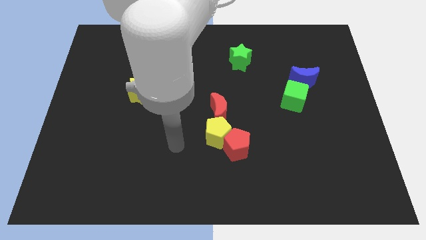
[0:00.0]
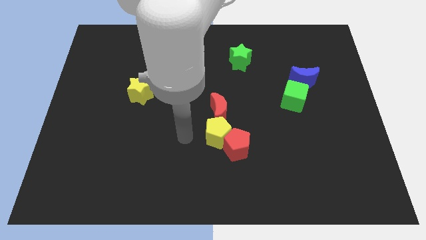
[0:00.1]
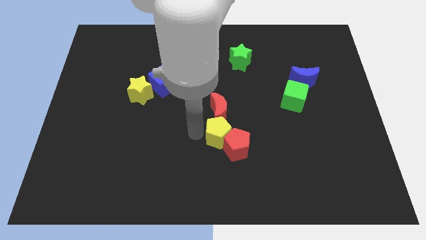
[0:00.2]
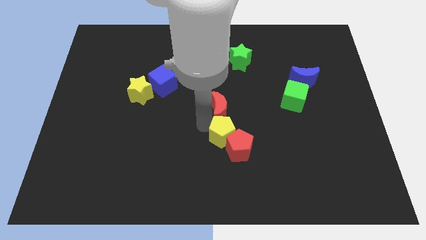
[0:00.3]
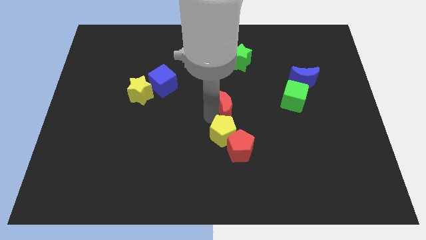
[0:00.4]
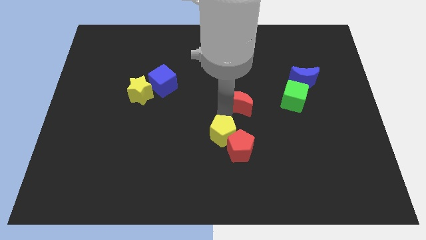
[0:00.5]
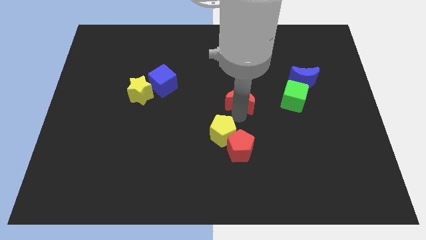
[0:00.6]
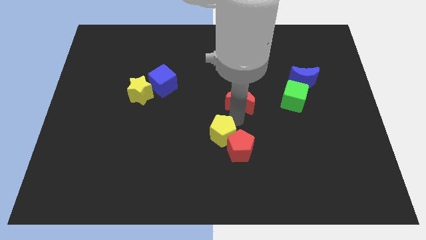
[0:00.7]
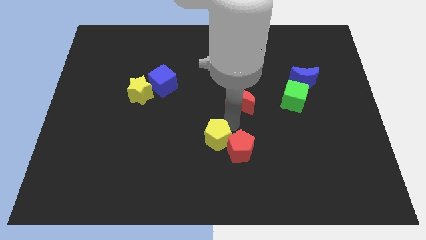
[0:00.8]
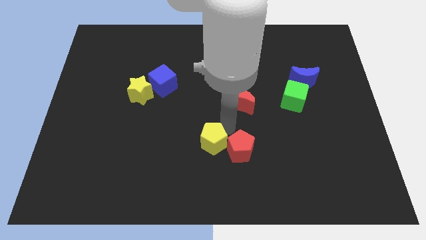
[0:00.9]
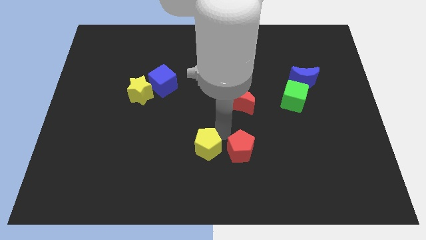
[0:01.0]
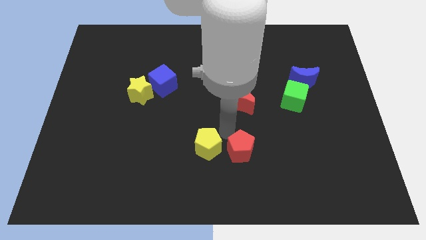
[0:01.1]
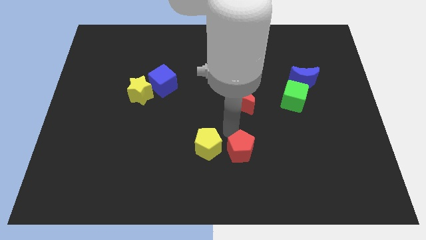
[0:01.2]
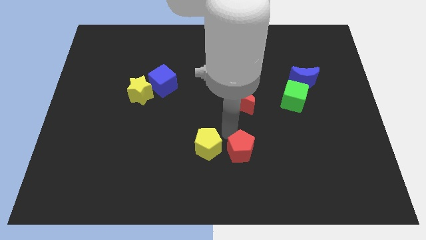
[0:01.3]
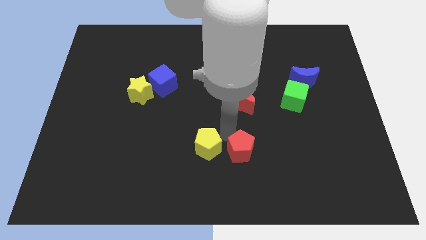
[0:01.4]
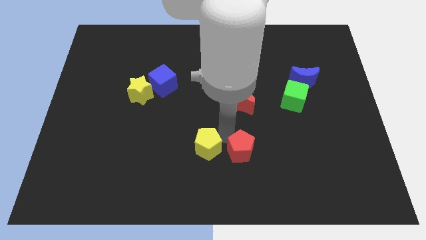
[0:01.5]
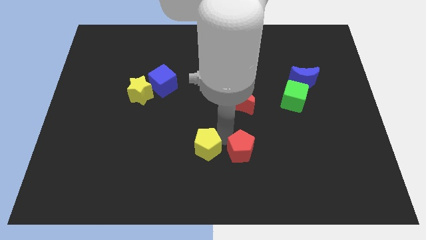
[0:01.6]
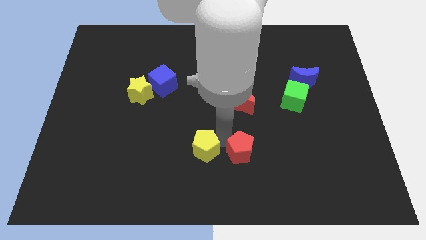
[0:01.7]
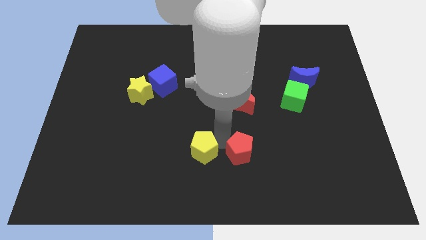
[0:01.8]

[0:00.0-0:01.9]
pull the yellow pentagon apart from the red pentagon and red moon

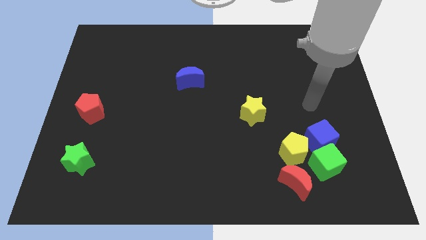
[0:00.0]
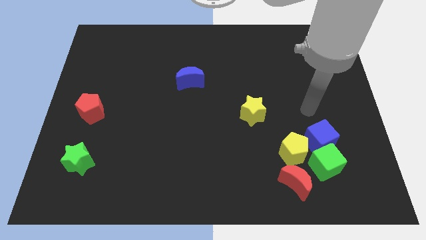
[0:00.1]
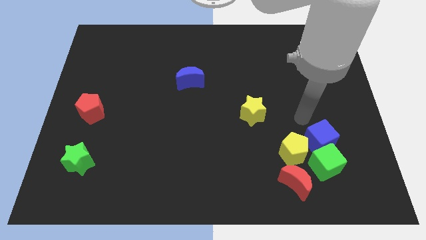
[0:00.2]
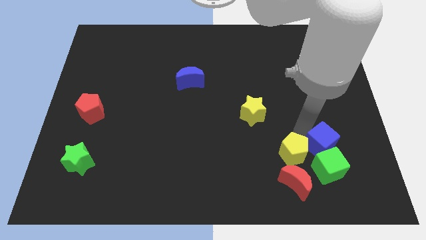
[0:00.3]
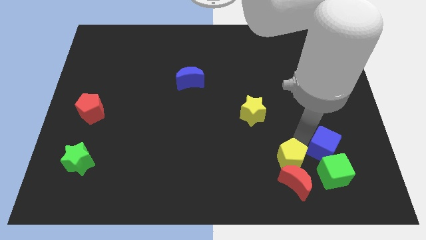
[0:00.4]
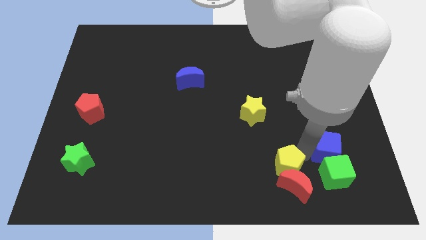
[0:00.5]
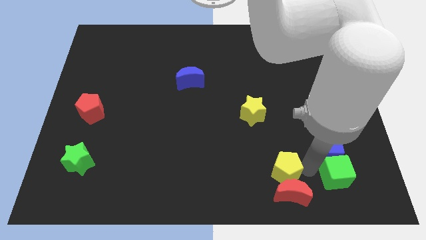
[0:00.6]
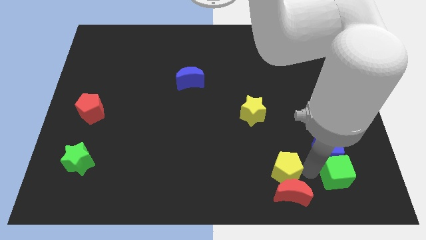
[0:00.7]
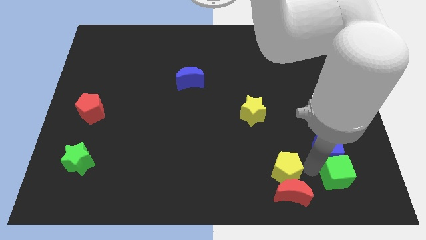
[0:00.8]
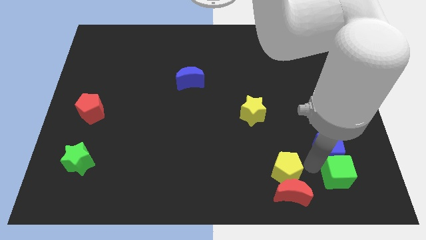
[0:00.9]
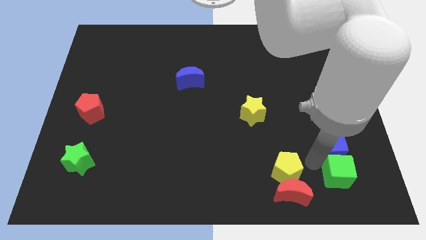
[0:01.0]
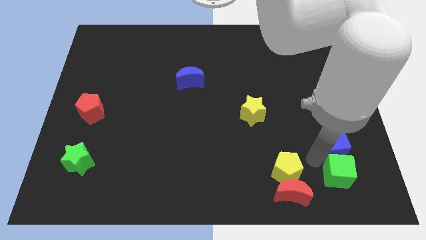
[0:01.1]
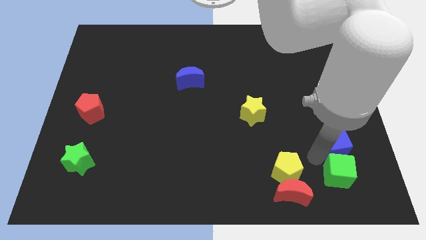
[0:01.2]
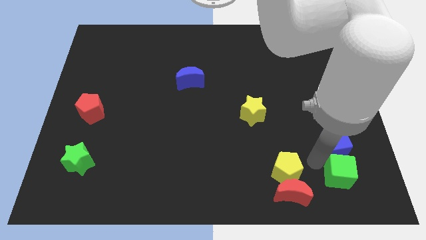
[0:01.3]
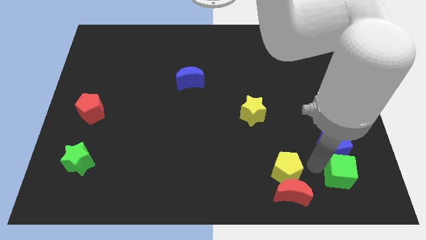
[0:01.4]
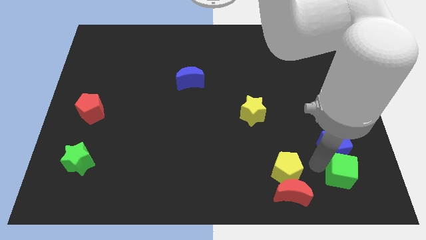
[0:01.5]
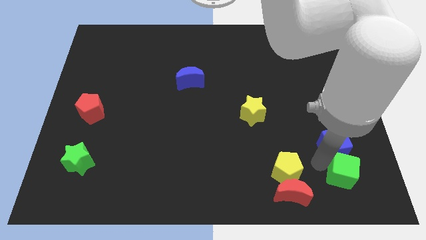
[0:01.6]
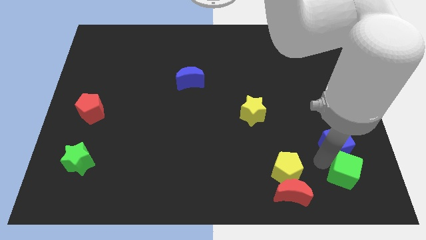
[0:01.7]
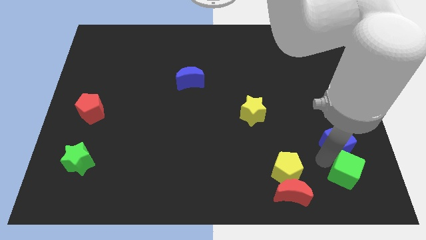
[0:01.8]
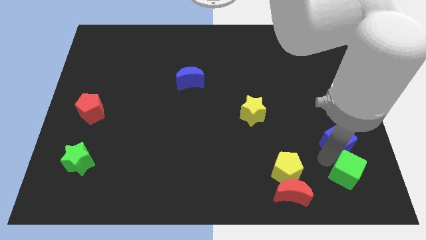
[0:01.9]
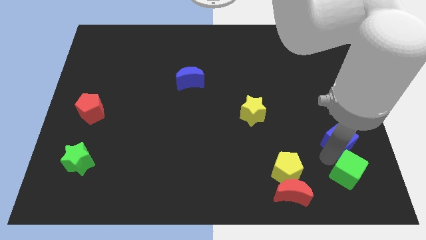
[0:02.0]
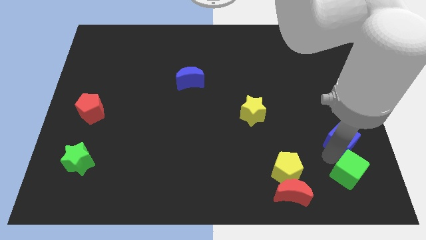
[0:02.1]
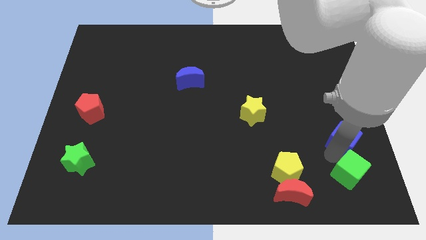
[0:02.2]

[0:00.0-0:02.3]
separate the blue cube from the green cube and yellow pentagon

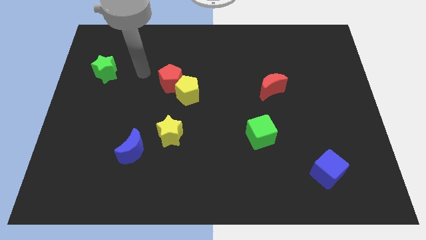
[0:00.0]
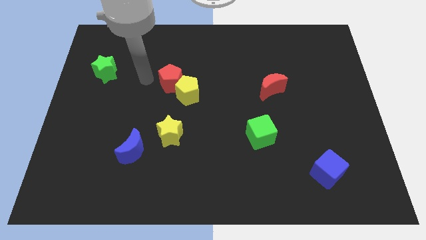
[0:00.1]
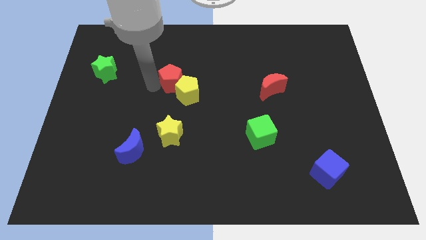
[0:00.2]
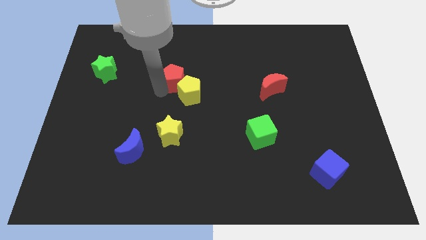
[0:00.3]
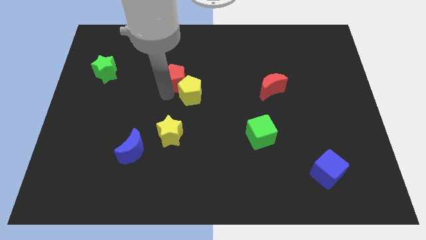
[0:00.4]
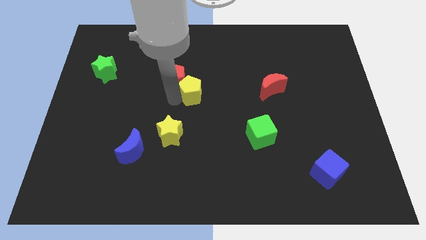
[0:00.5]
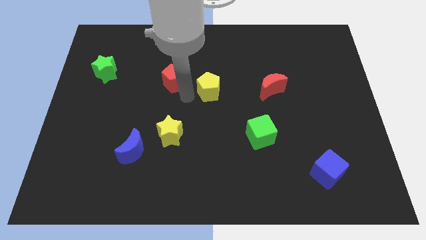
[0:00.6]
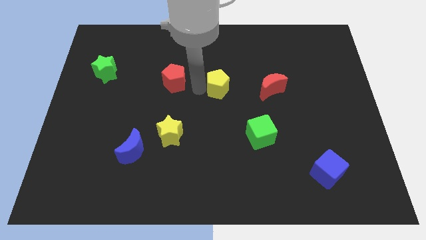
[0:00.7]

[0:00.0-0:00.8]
pull the red pentagon apart from the yellow pentagon

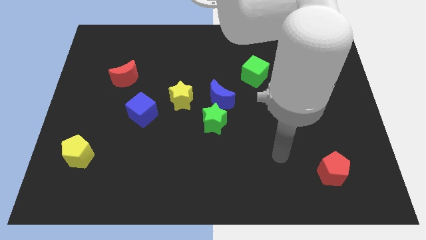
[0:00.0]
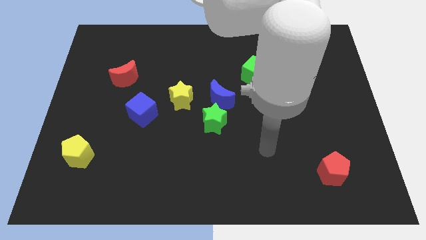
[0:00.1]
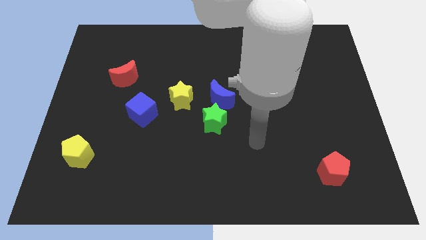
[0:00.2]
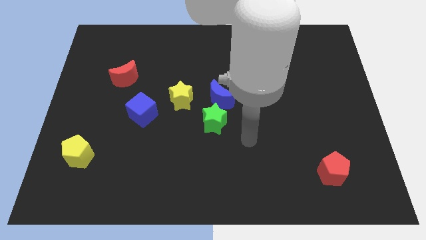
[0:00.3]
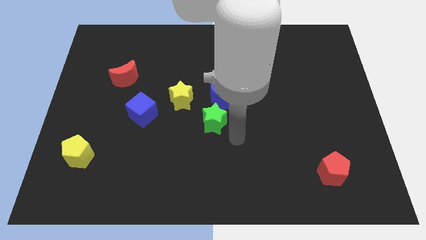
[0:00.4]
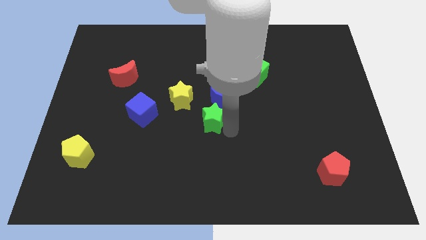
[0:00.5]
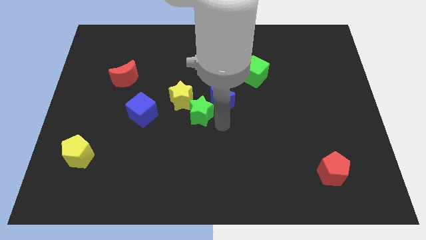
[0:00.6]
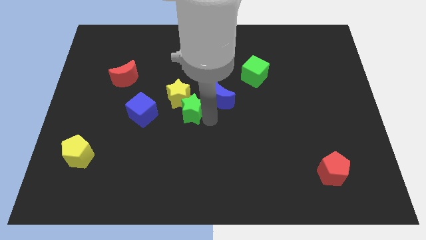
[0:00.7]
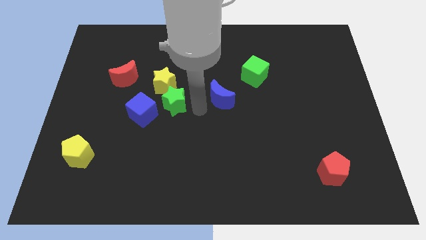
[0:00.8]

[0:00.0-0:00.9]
pull the blue moon apart from the green star and yellow star

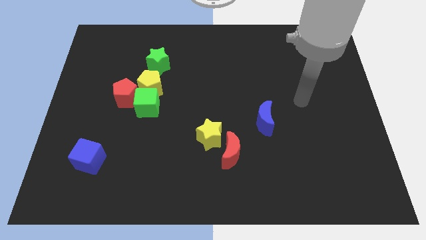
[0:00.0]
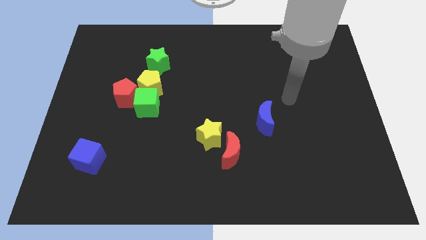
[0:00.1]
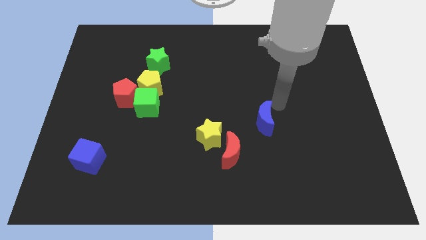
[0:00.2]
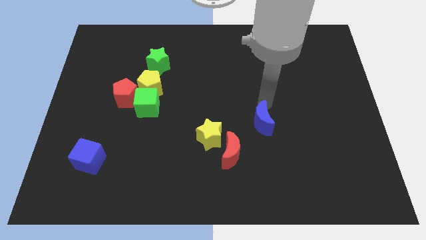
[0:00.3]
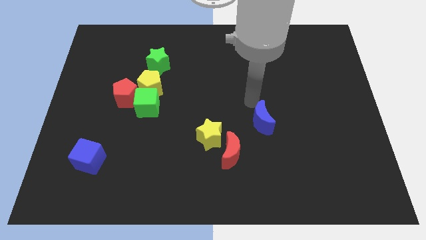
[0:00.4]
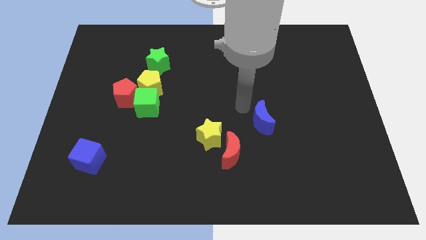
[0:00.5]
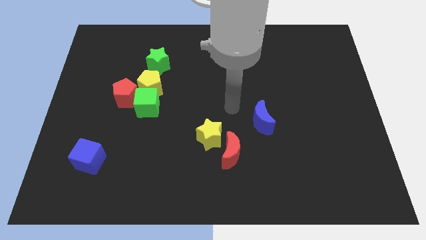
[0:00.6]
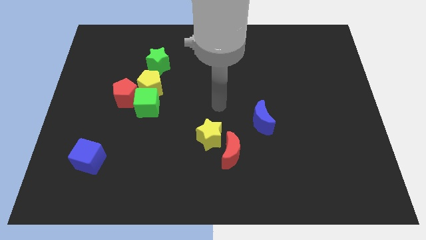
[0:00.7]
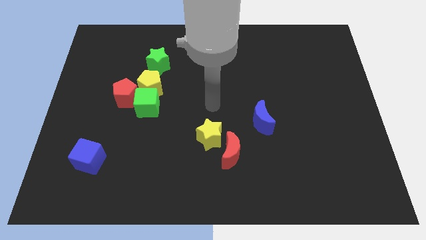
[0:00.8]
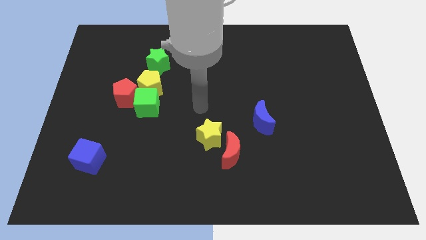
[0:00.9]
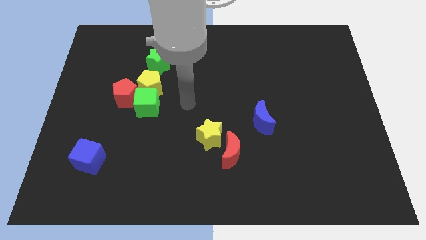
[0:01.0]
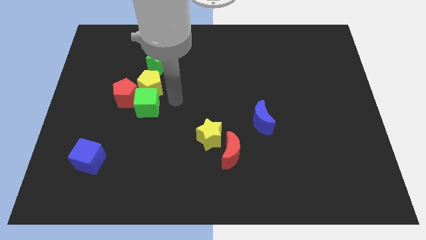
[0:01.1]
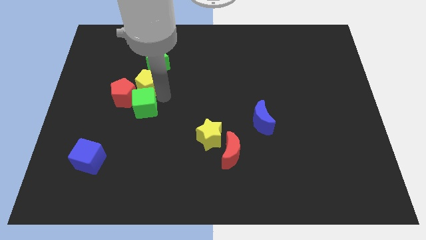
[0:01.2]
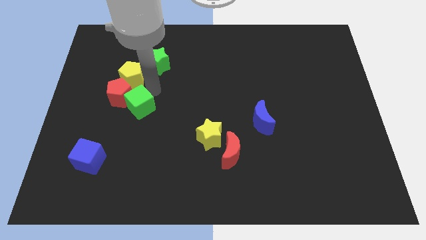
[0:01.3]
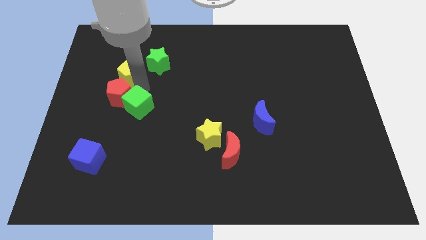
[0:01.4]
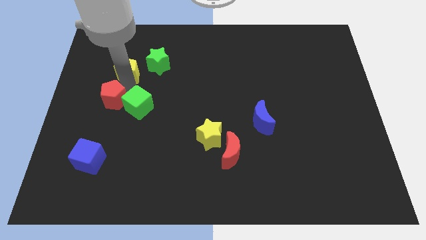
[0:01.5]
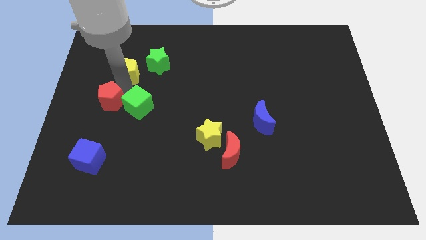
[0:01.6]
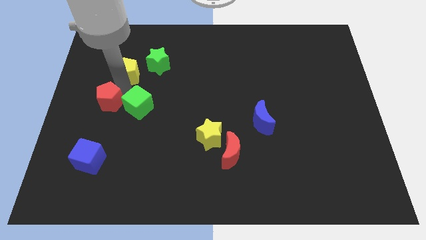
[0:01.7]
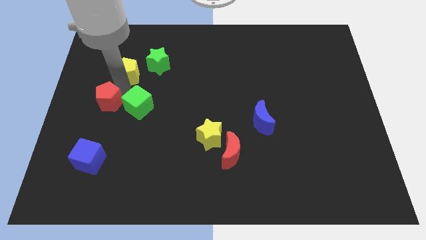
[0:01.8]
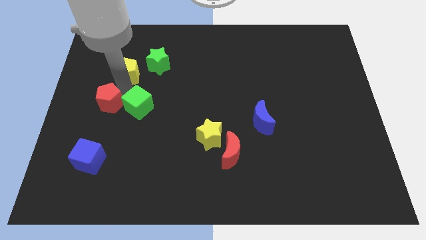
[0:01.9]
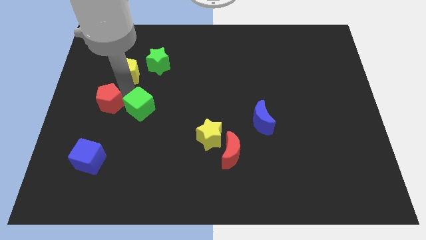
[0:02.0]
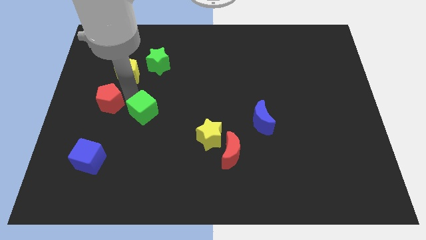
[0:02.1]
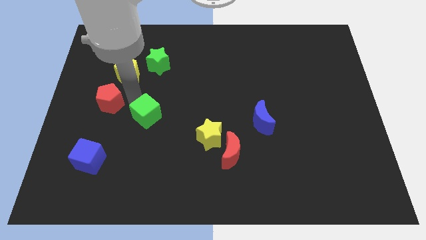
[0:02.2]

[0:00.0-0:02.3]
separate the green cube from the yellow pentagon and red pentagon

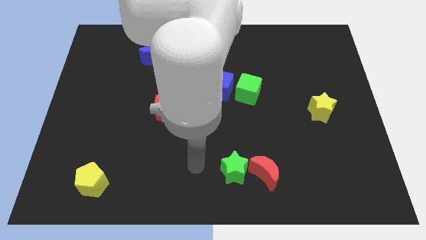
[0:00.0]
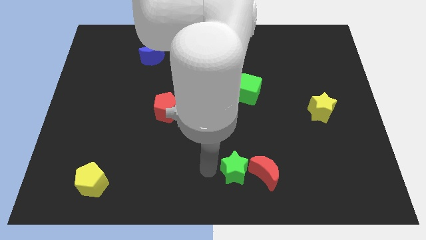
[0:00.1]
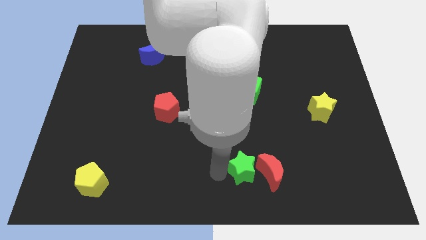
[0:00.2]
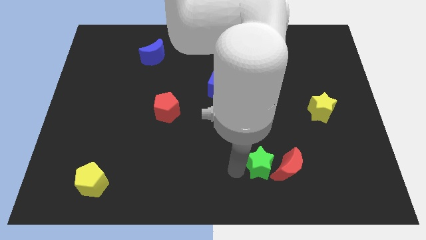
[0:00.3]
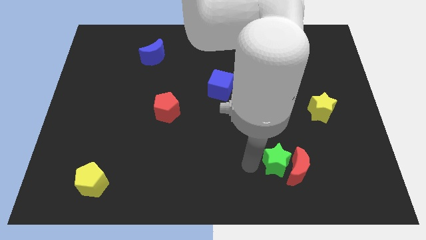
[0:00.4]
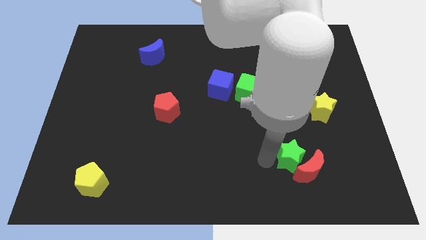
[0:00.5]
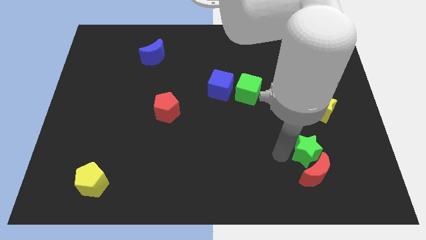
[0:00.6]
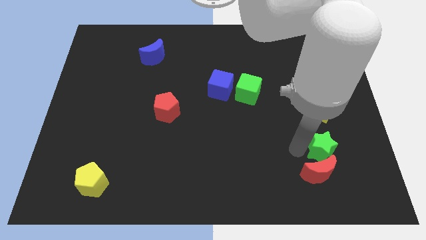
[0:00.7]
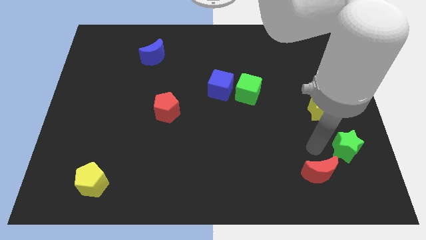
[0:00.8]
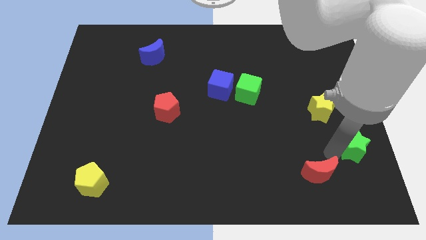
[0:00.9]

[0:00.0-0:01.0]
move the red moon away from the green star

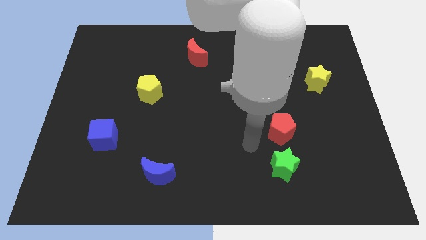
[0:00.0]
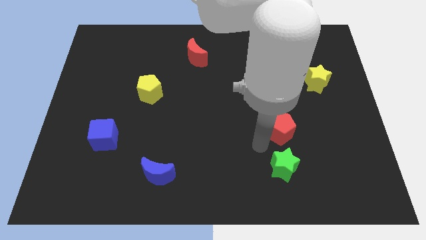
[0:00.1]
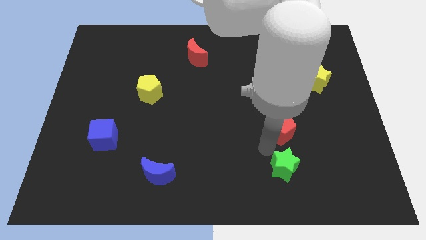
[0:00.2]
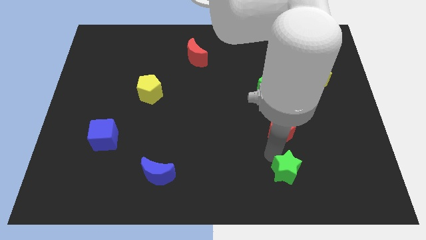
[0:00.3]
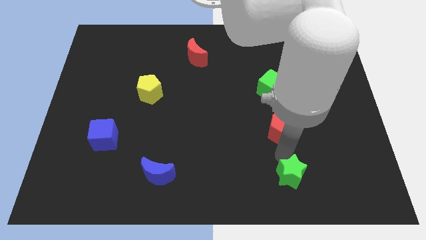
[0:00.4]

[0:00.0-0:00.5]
move the red pentagon away from the green star
